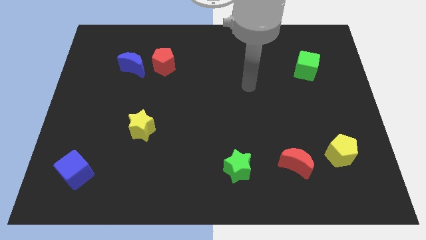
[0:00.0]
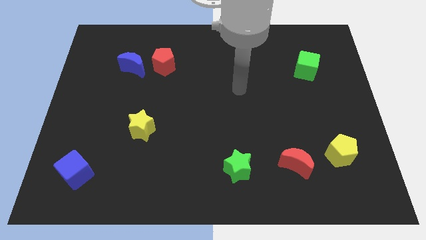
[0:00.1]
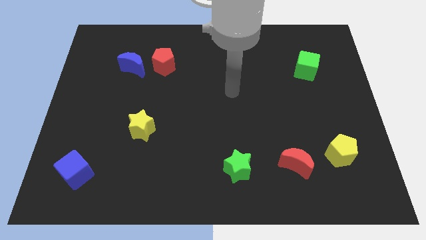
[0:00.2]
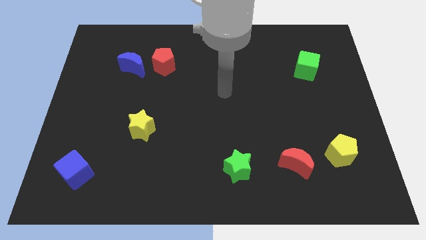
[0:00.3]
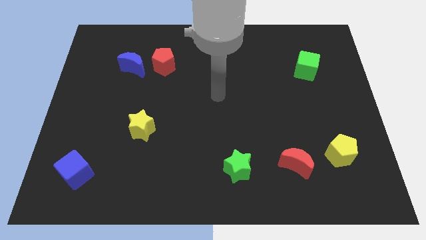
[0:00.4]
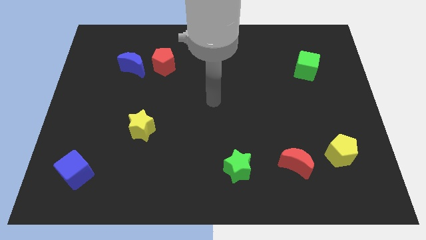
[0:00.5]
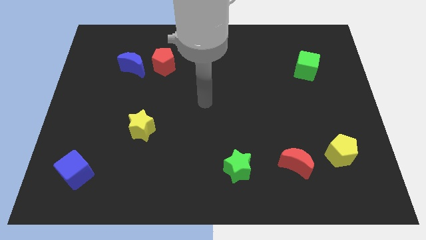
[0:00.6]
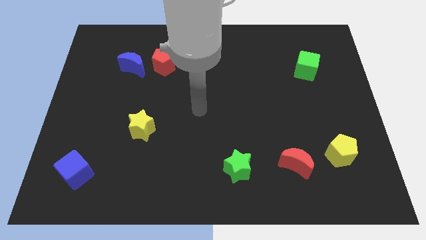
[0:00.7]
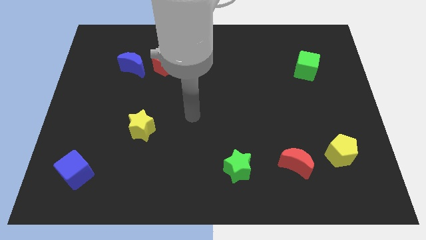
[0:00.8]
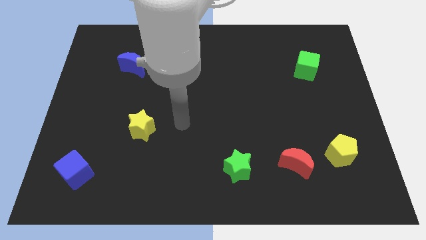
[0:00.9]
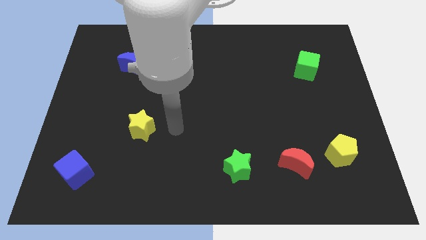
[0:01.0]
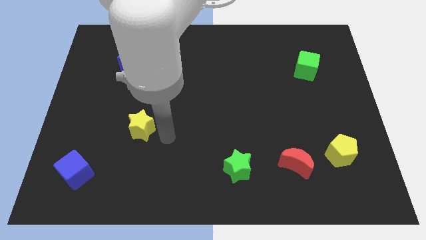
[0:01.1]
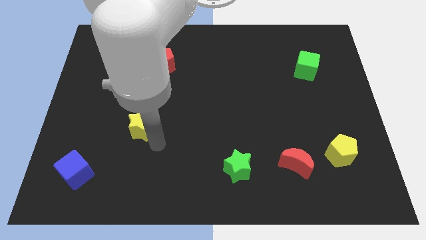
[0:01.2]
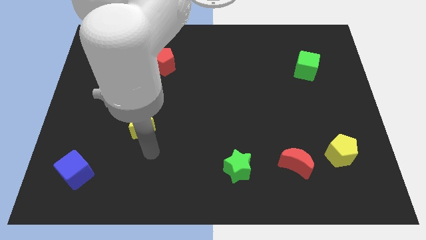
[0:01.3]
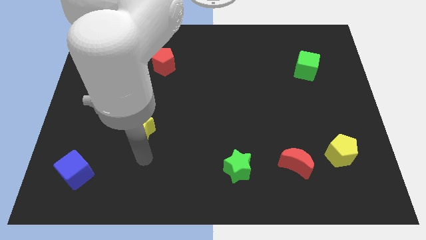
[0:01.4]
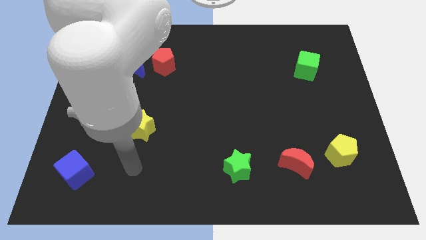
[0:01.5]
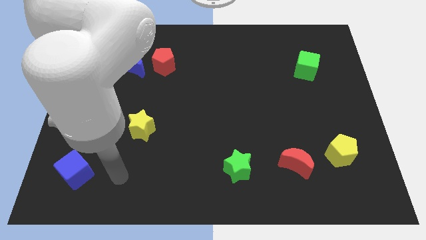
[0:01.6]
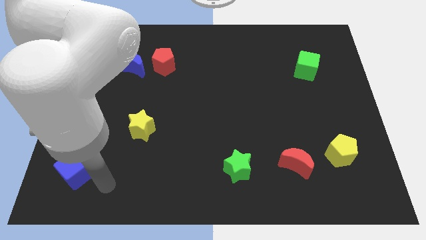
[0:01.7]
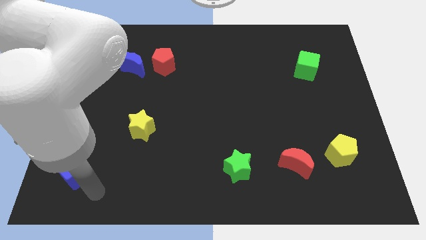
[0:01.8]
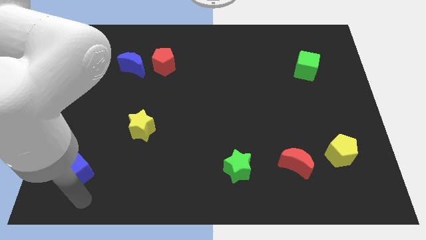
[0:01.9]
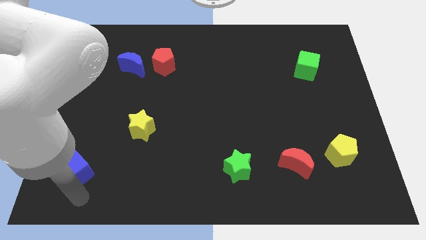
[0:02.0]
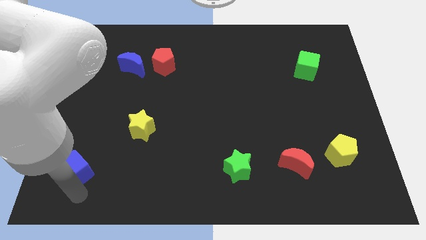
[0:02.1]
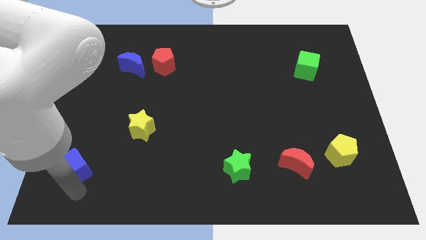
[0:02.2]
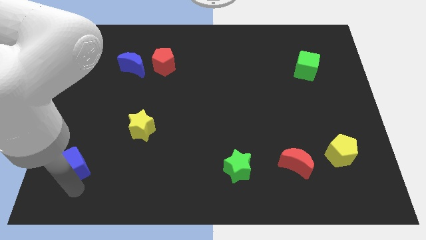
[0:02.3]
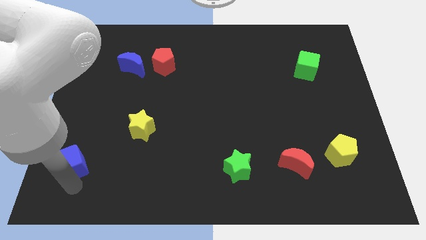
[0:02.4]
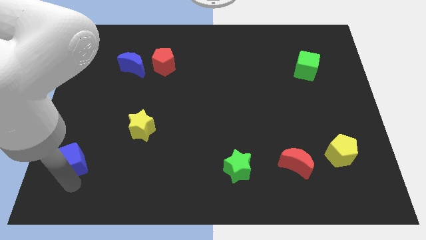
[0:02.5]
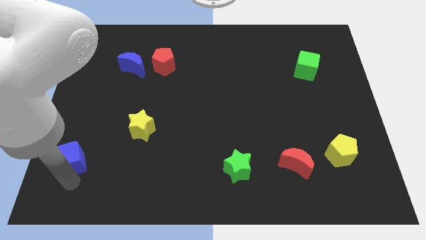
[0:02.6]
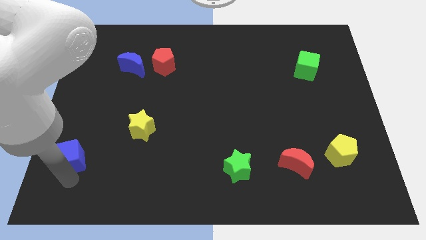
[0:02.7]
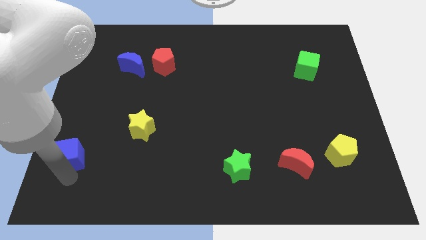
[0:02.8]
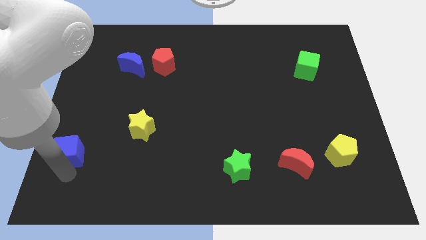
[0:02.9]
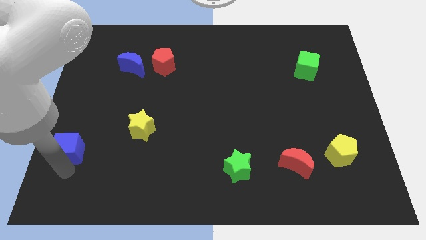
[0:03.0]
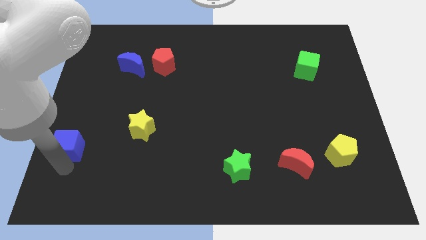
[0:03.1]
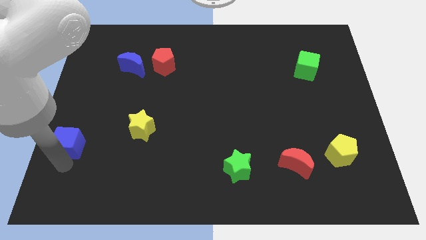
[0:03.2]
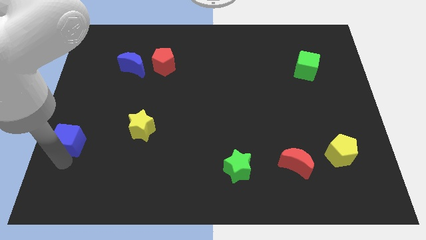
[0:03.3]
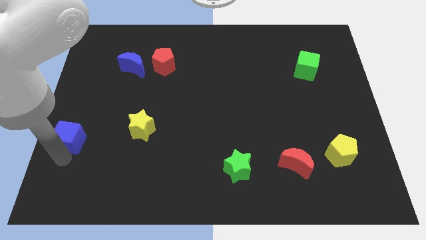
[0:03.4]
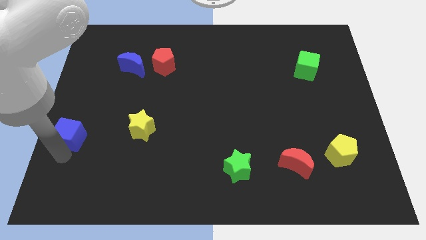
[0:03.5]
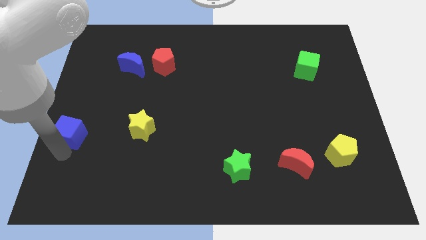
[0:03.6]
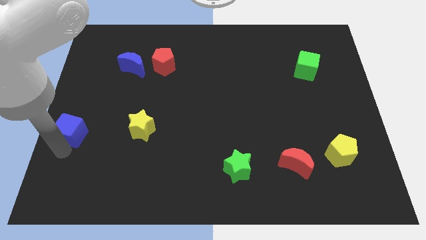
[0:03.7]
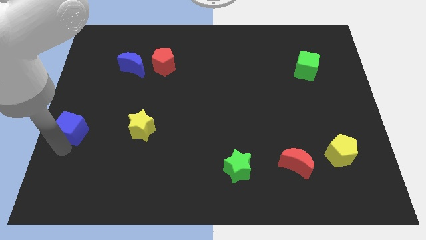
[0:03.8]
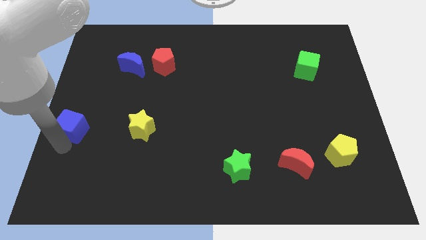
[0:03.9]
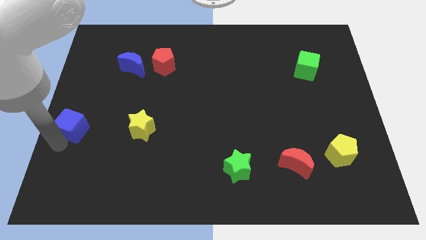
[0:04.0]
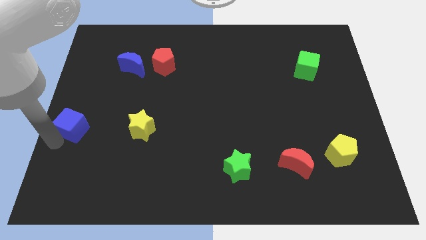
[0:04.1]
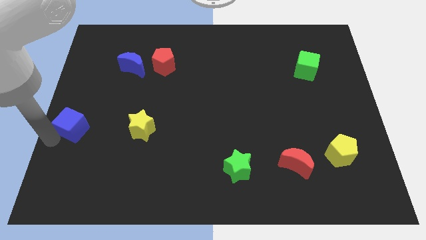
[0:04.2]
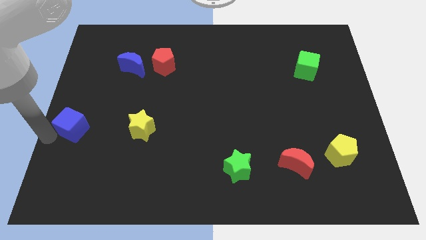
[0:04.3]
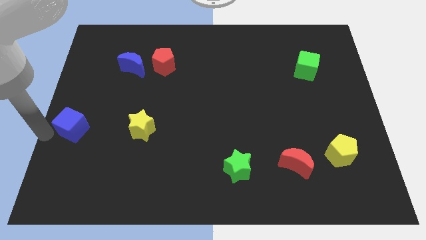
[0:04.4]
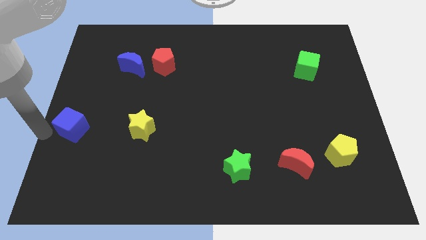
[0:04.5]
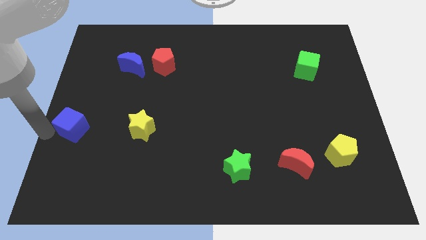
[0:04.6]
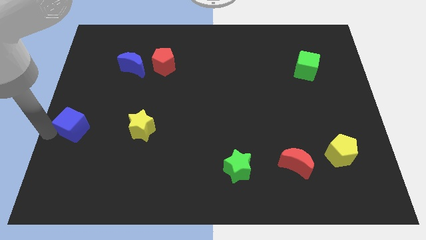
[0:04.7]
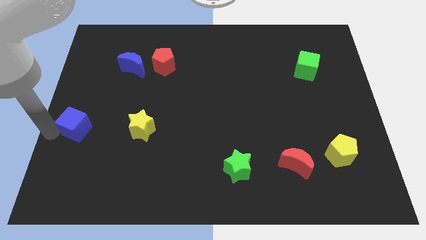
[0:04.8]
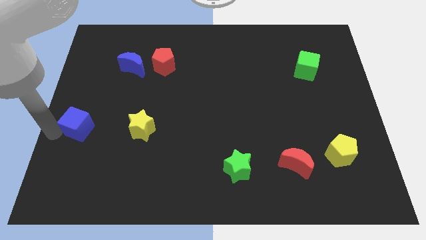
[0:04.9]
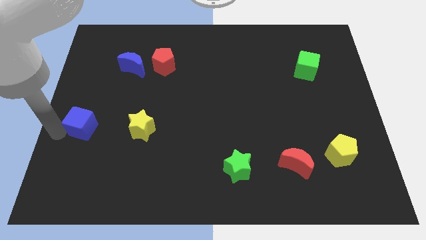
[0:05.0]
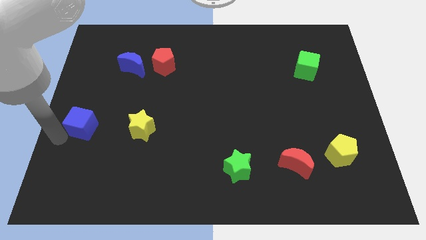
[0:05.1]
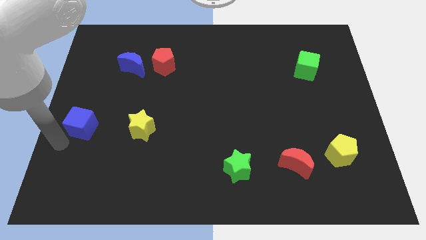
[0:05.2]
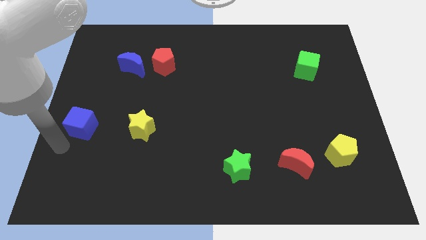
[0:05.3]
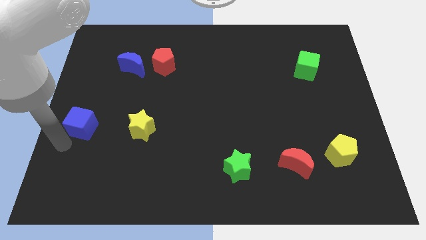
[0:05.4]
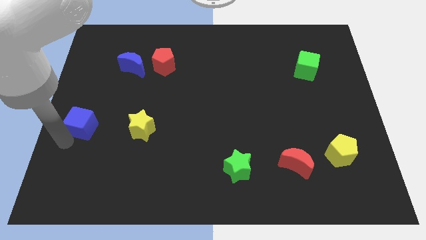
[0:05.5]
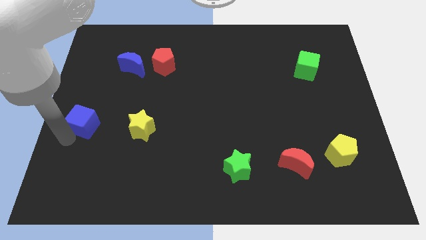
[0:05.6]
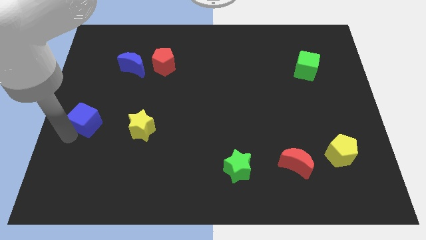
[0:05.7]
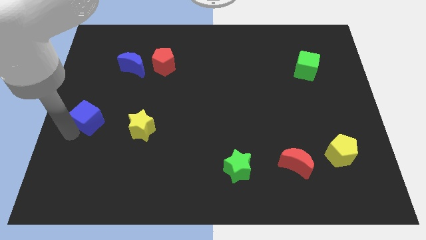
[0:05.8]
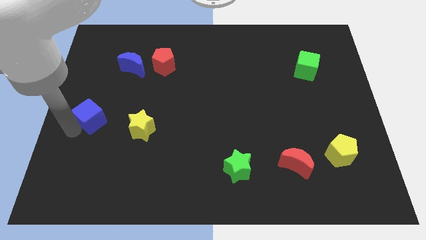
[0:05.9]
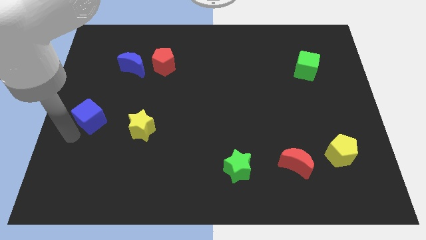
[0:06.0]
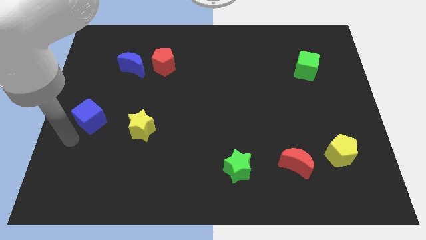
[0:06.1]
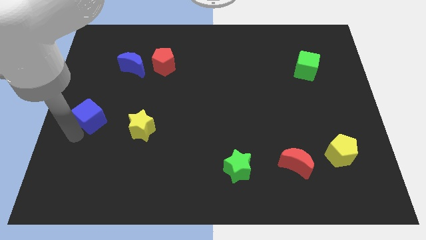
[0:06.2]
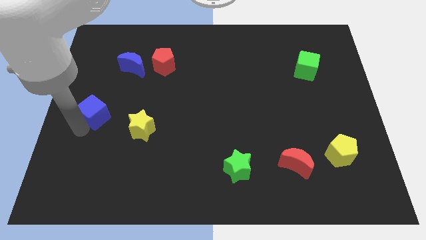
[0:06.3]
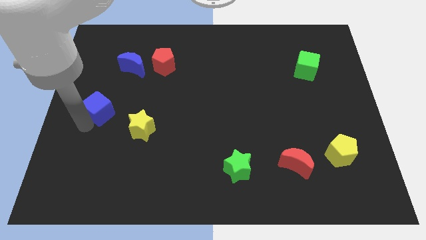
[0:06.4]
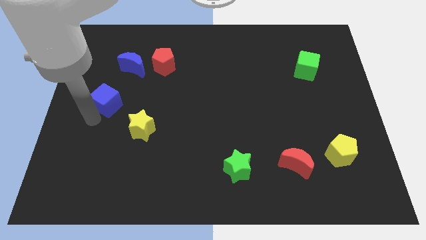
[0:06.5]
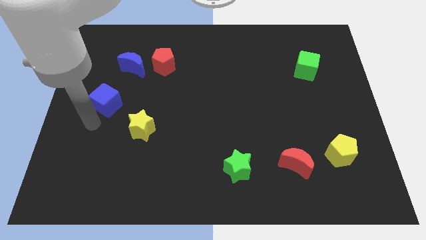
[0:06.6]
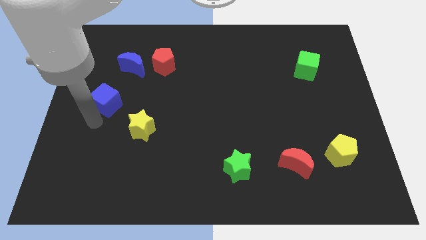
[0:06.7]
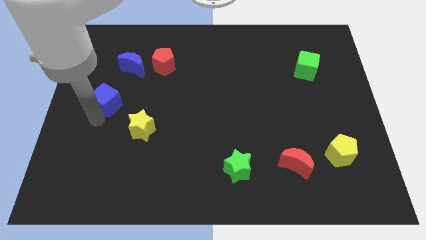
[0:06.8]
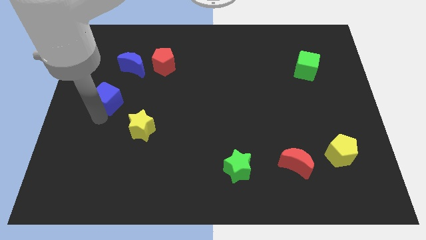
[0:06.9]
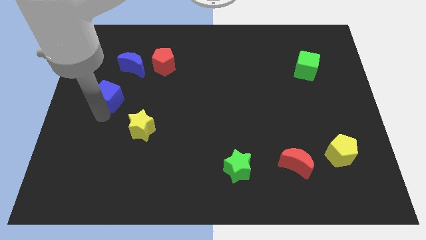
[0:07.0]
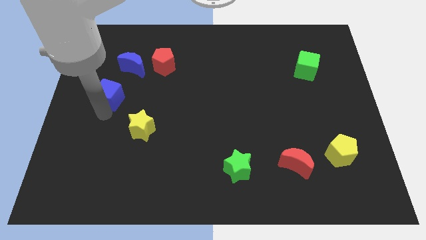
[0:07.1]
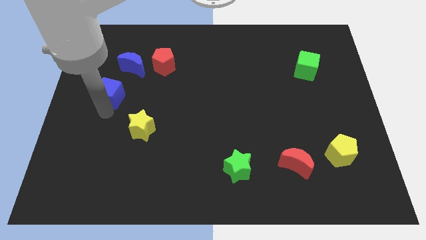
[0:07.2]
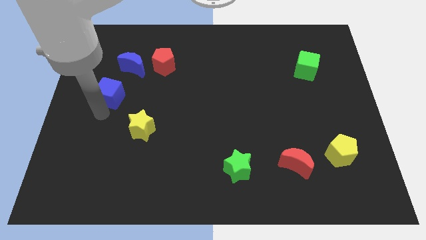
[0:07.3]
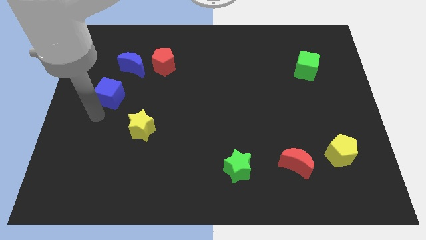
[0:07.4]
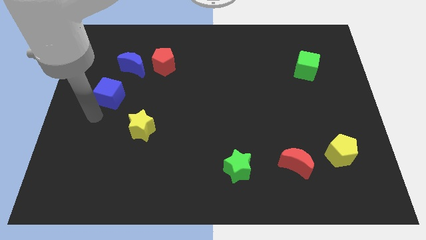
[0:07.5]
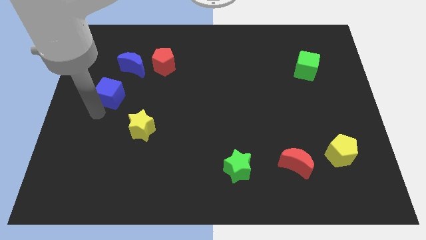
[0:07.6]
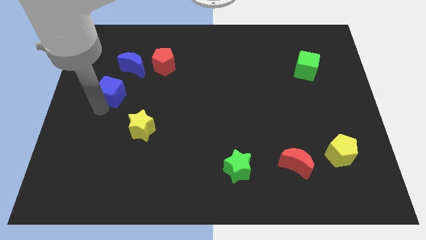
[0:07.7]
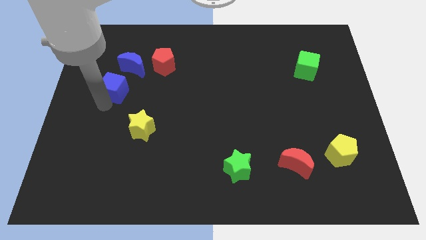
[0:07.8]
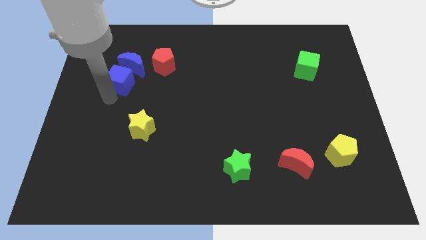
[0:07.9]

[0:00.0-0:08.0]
push the blue cube towards the blue moon
